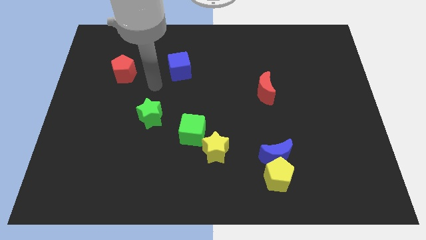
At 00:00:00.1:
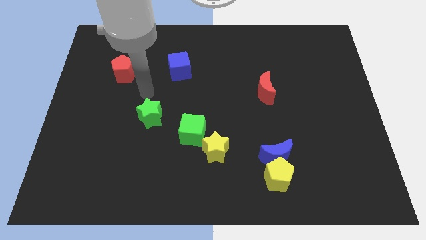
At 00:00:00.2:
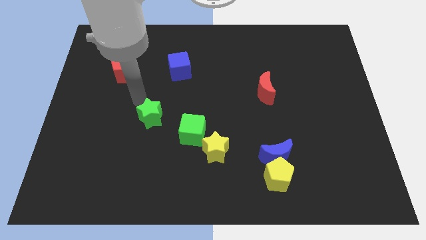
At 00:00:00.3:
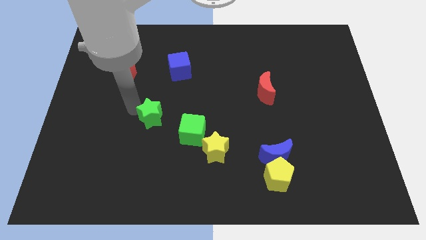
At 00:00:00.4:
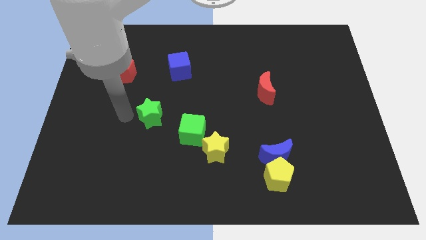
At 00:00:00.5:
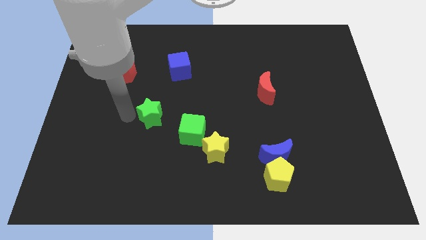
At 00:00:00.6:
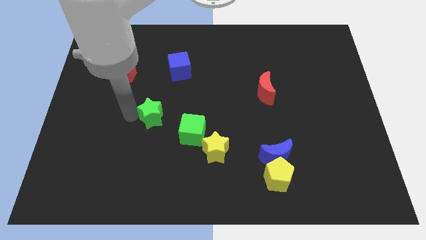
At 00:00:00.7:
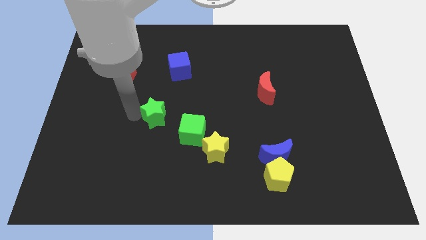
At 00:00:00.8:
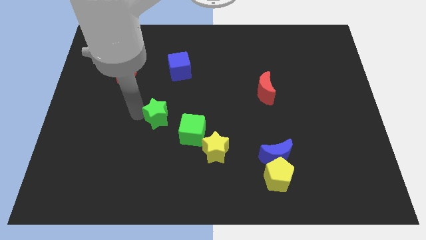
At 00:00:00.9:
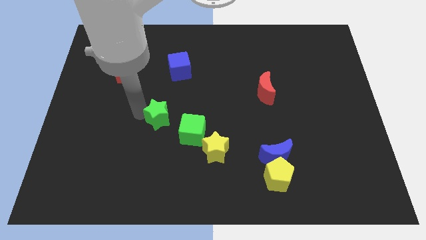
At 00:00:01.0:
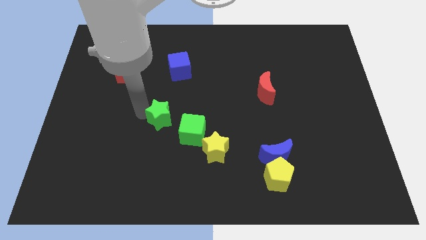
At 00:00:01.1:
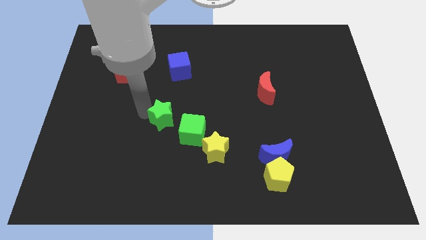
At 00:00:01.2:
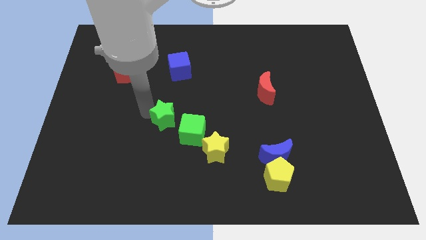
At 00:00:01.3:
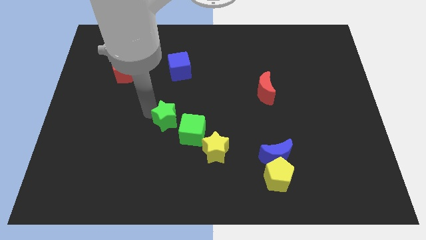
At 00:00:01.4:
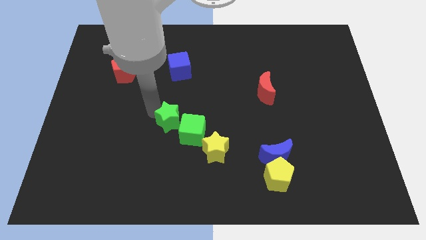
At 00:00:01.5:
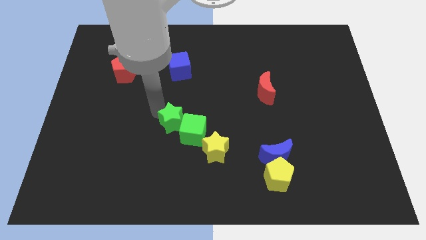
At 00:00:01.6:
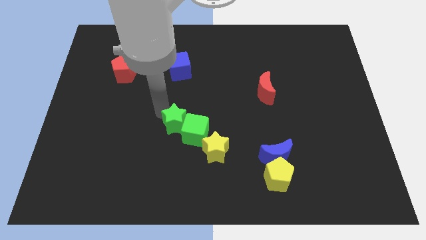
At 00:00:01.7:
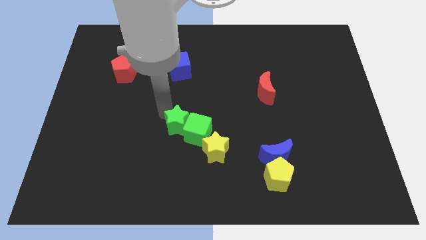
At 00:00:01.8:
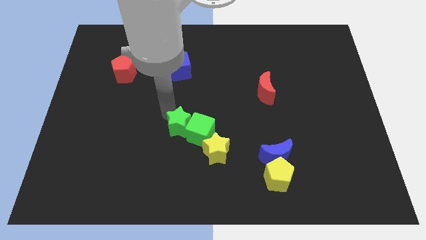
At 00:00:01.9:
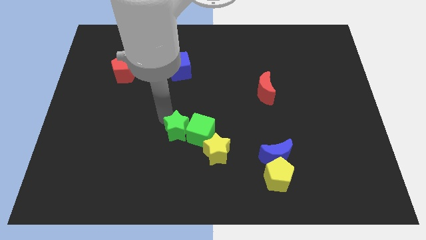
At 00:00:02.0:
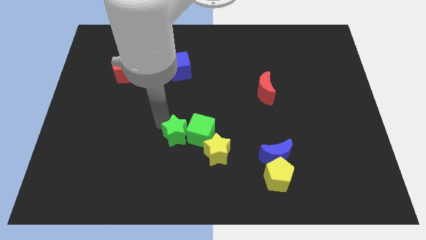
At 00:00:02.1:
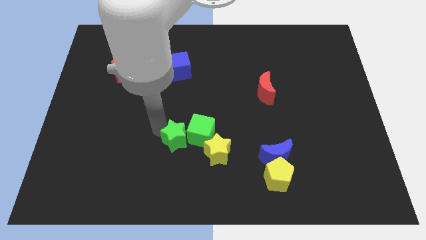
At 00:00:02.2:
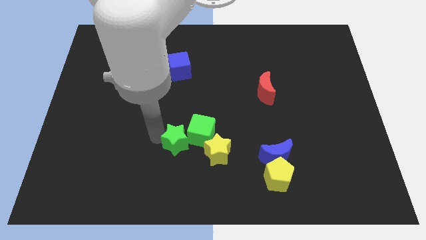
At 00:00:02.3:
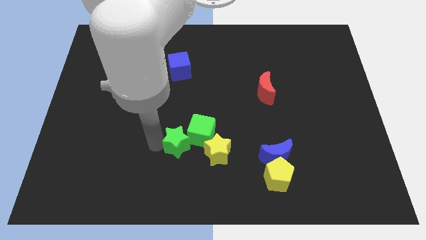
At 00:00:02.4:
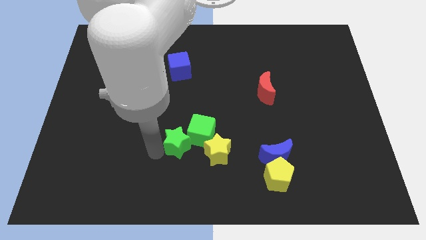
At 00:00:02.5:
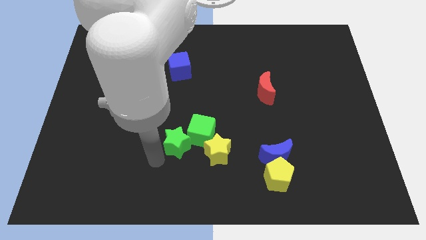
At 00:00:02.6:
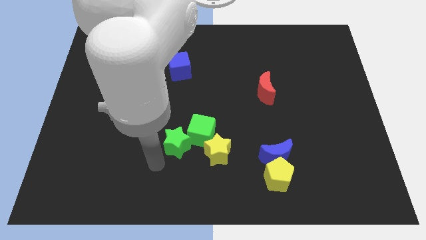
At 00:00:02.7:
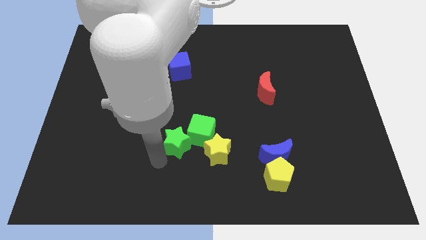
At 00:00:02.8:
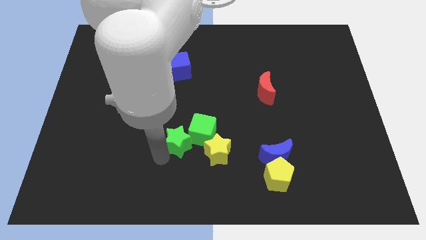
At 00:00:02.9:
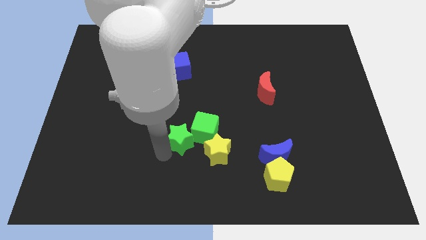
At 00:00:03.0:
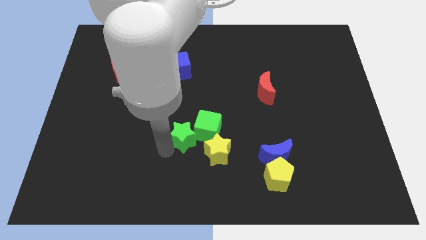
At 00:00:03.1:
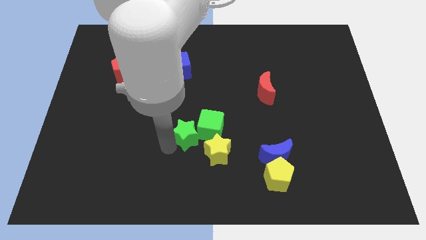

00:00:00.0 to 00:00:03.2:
slightly push the green star to the right

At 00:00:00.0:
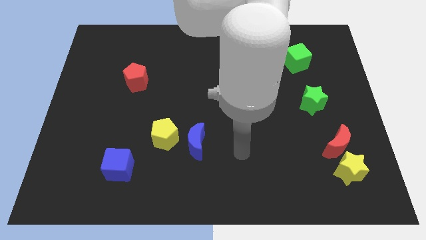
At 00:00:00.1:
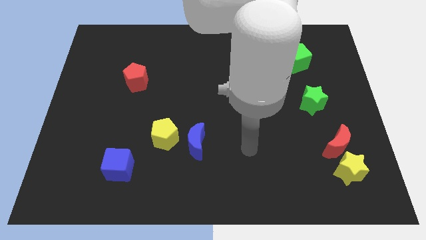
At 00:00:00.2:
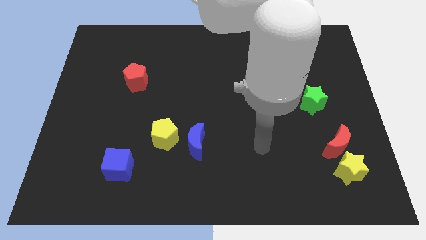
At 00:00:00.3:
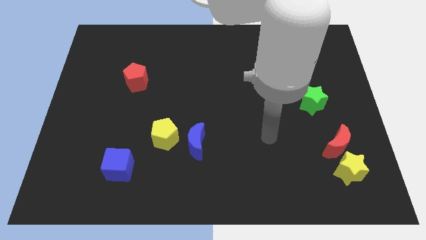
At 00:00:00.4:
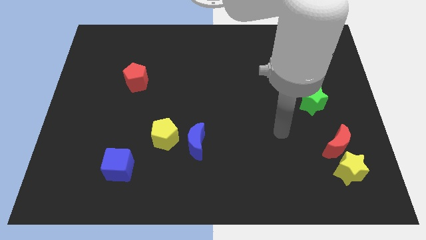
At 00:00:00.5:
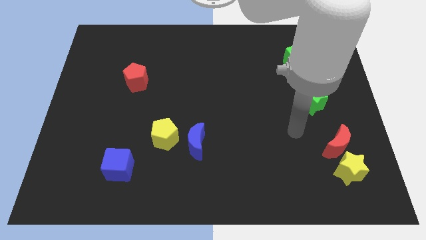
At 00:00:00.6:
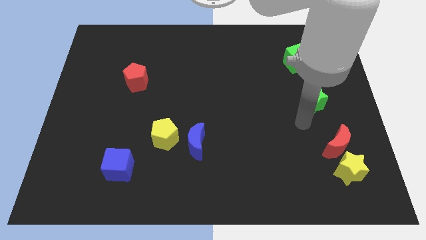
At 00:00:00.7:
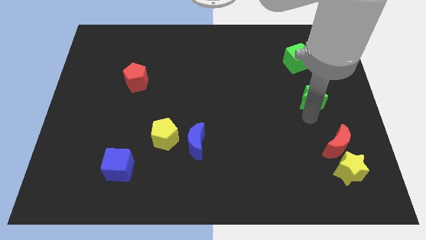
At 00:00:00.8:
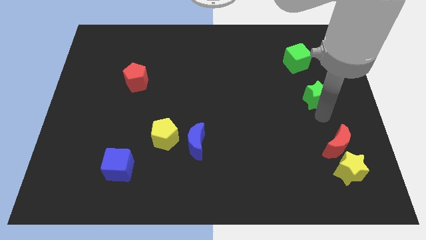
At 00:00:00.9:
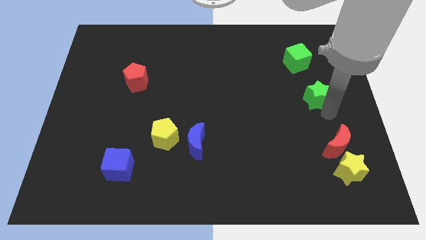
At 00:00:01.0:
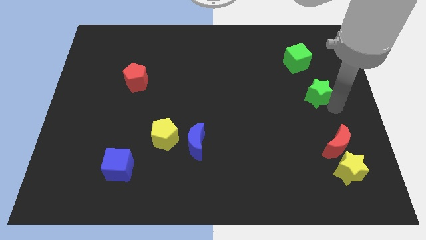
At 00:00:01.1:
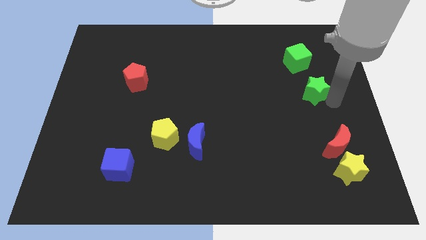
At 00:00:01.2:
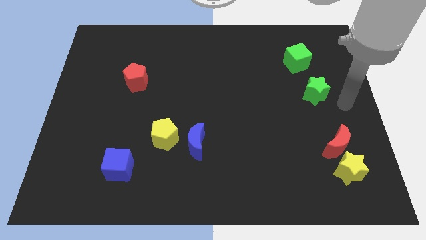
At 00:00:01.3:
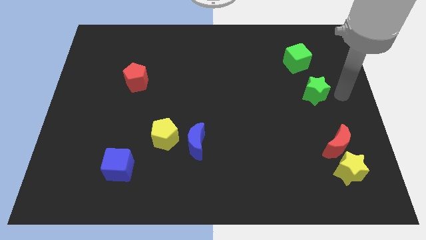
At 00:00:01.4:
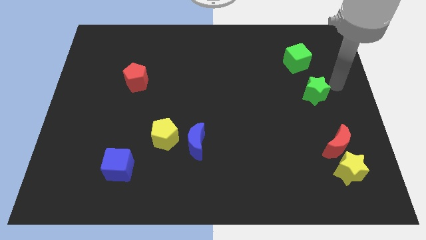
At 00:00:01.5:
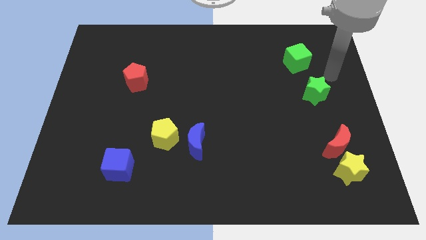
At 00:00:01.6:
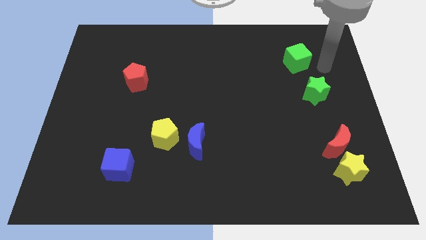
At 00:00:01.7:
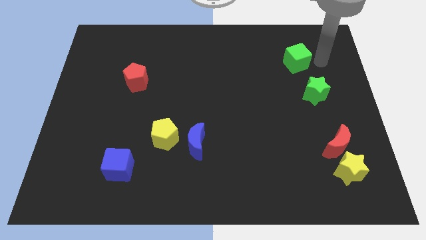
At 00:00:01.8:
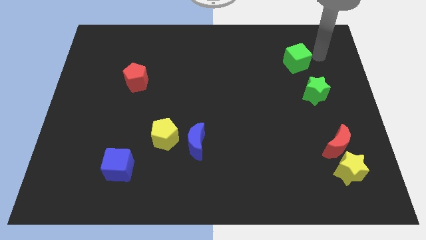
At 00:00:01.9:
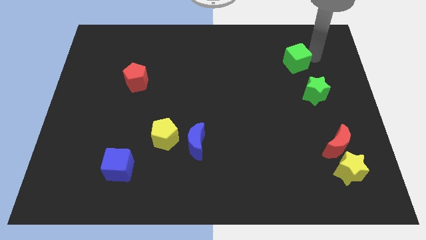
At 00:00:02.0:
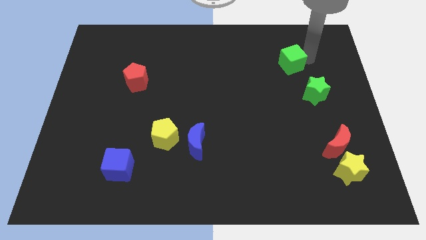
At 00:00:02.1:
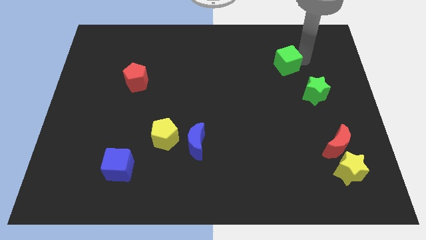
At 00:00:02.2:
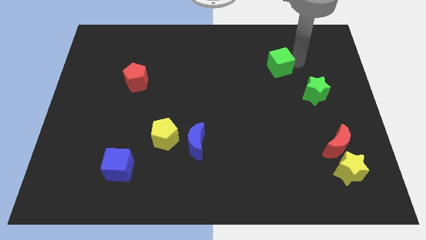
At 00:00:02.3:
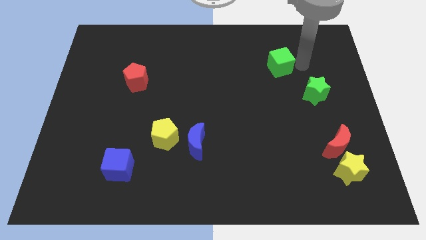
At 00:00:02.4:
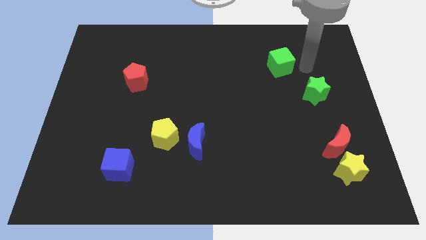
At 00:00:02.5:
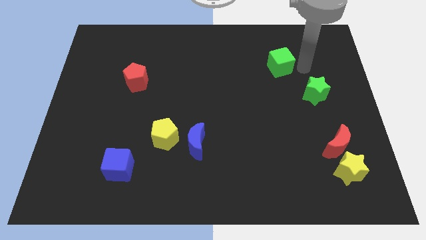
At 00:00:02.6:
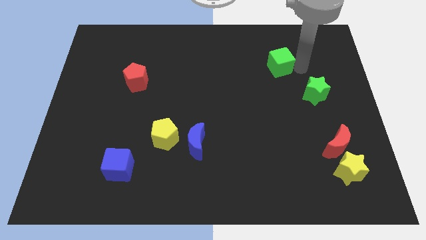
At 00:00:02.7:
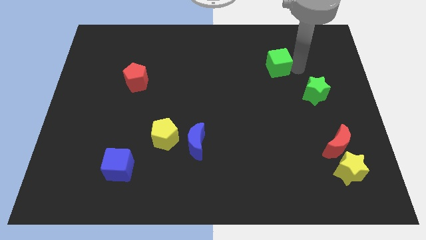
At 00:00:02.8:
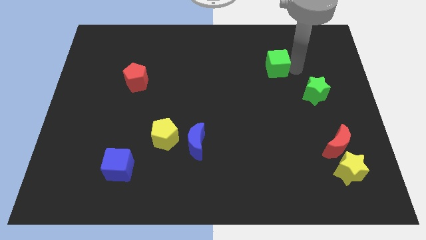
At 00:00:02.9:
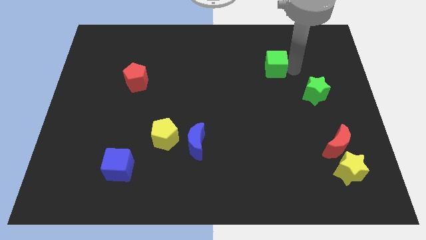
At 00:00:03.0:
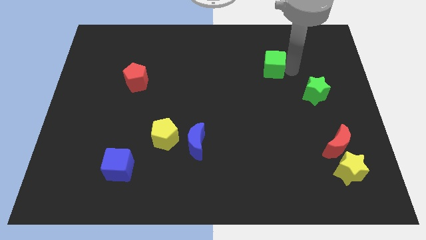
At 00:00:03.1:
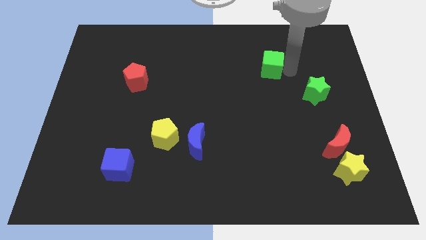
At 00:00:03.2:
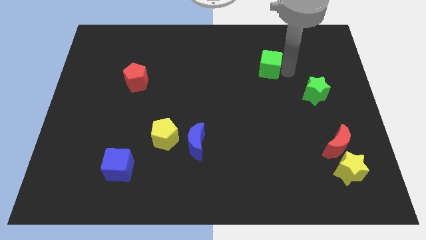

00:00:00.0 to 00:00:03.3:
push the green cube somewhat to the left

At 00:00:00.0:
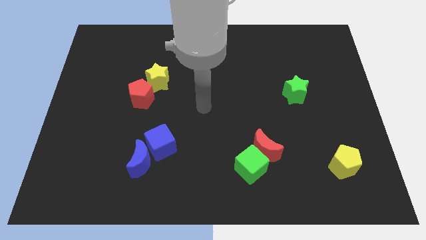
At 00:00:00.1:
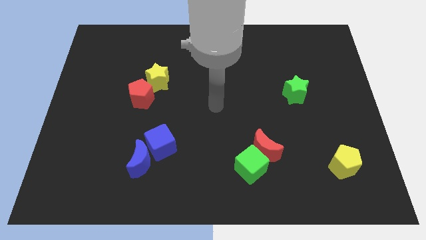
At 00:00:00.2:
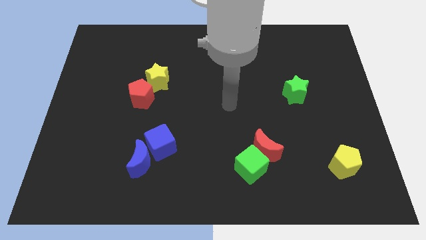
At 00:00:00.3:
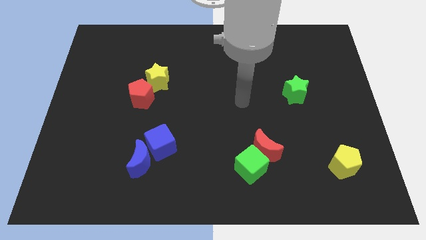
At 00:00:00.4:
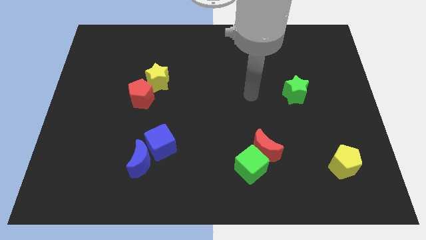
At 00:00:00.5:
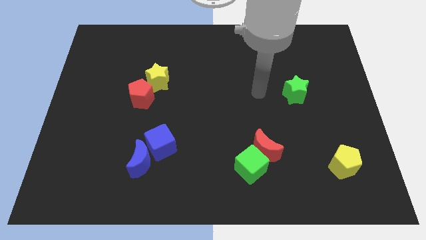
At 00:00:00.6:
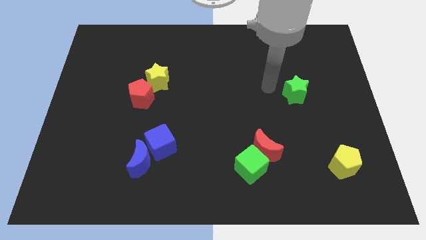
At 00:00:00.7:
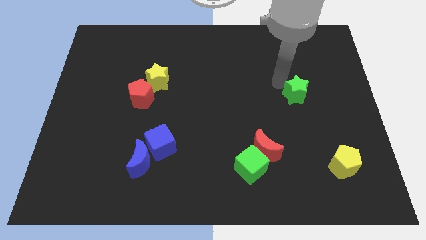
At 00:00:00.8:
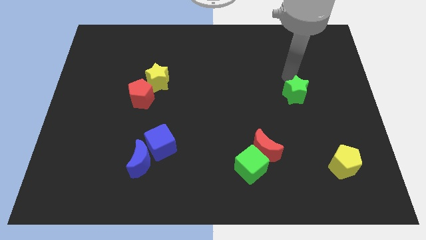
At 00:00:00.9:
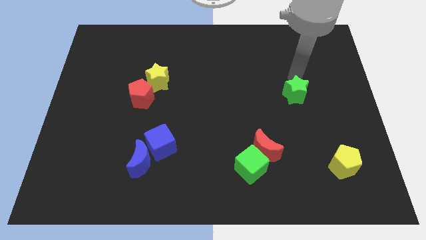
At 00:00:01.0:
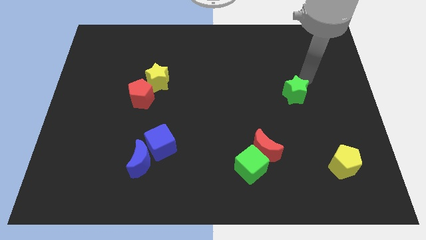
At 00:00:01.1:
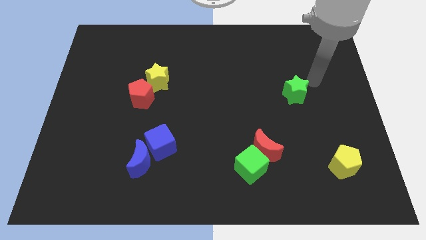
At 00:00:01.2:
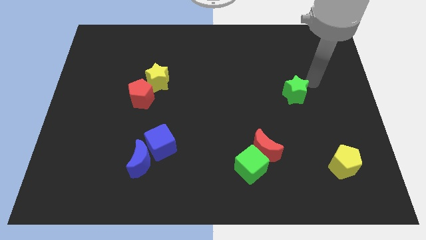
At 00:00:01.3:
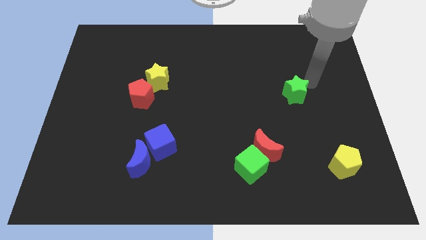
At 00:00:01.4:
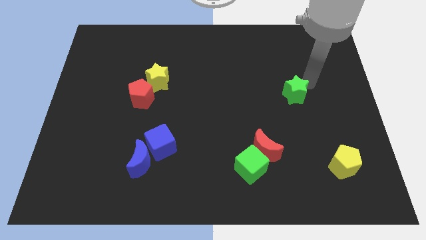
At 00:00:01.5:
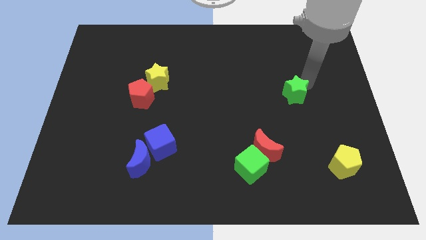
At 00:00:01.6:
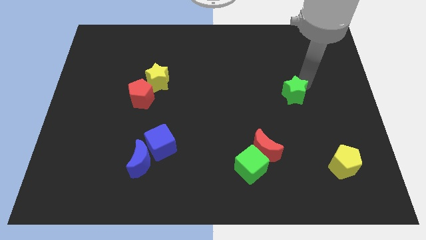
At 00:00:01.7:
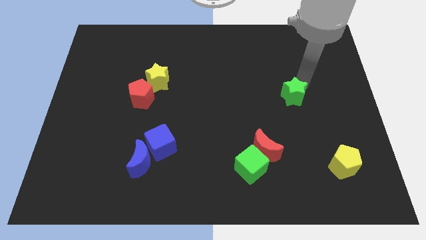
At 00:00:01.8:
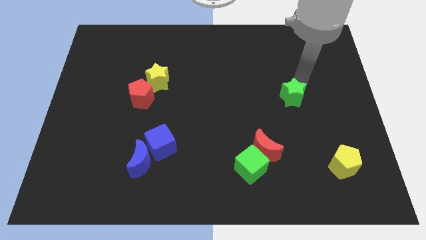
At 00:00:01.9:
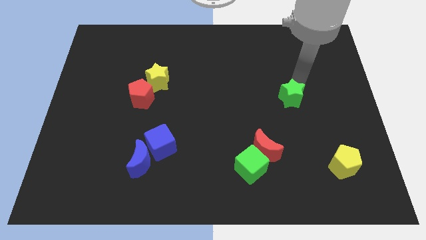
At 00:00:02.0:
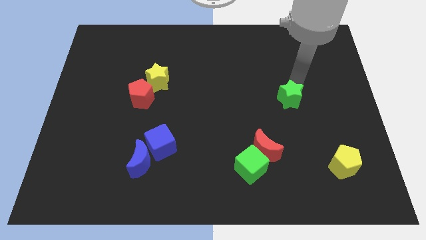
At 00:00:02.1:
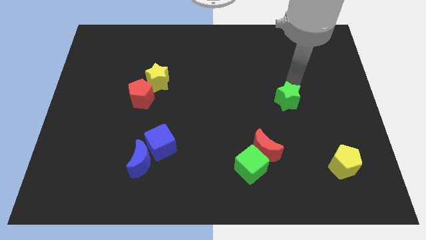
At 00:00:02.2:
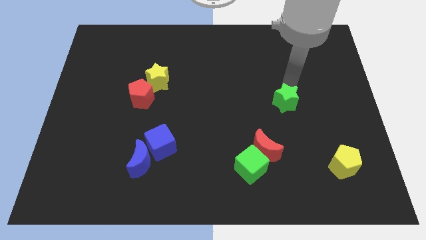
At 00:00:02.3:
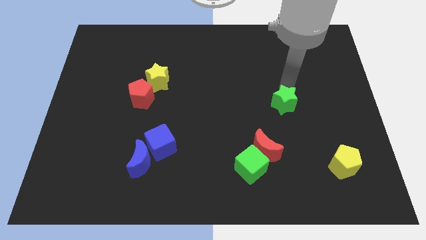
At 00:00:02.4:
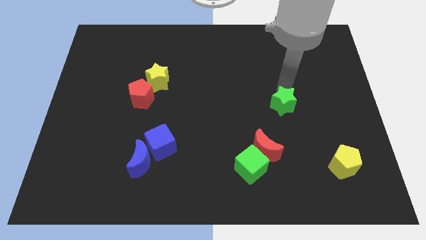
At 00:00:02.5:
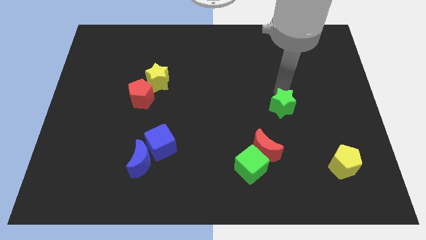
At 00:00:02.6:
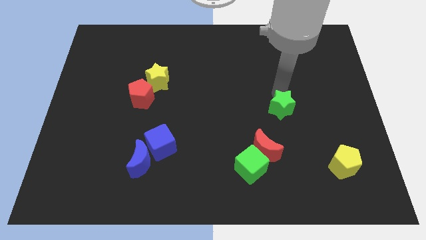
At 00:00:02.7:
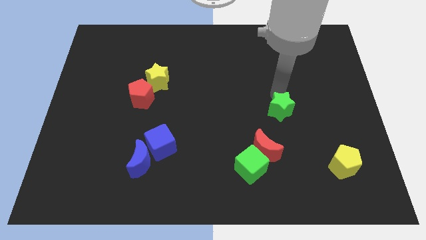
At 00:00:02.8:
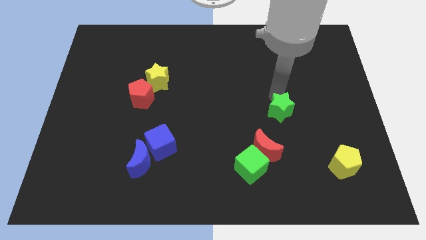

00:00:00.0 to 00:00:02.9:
slightly move the green star down and to the left
